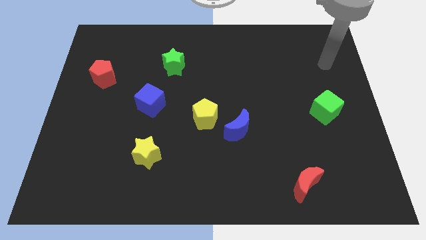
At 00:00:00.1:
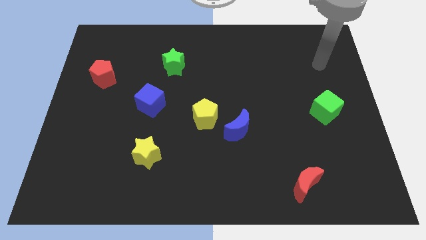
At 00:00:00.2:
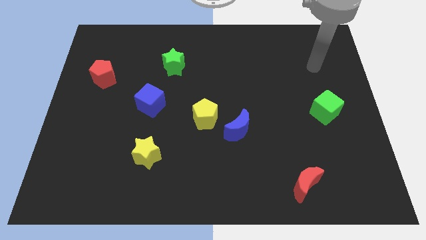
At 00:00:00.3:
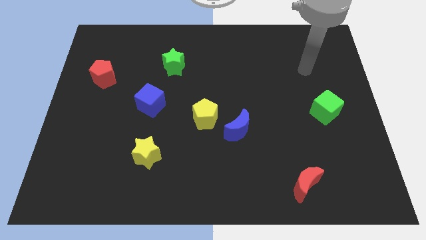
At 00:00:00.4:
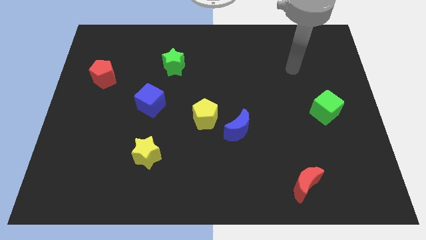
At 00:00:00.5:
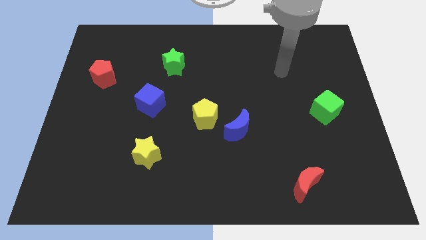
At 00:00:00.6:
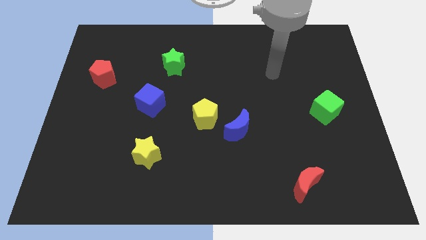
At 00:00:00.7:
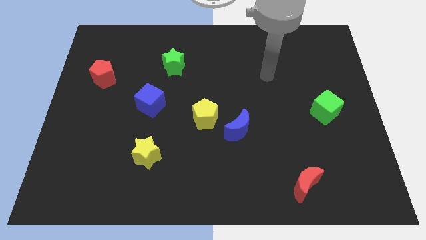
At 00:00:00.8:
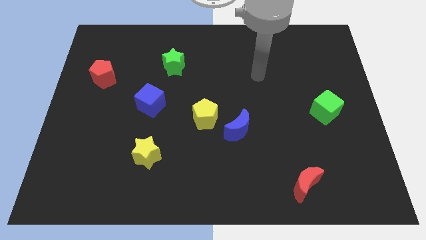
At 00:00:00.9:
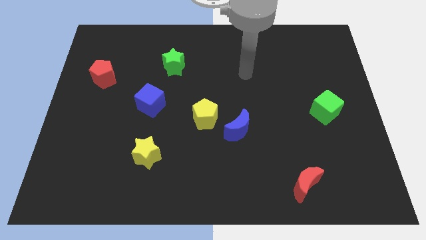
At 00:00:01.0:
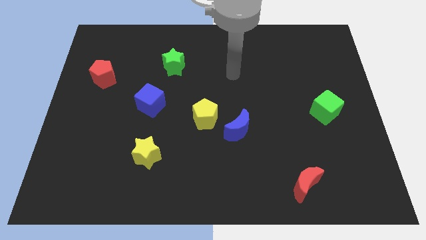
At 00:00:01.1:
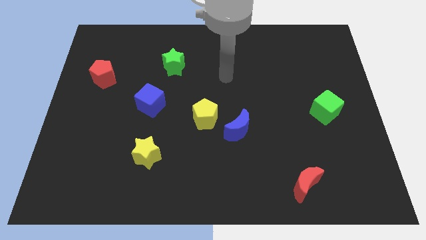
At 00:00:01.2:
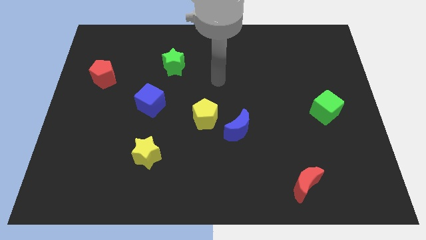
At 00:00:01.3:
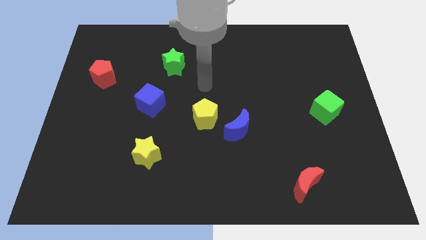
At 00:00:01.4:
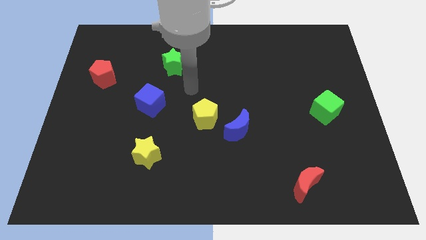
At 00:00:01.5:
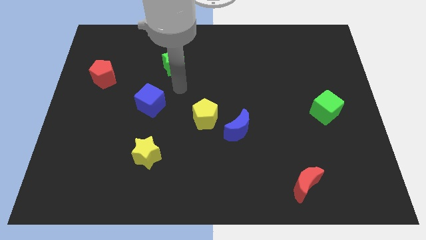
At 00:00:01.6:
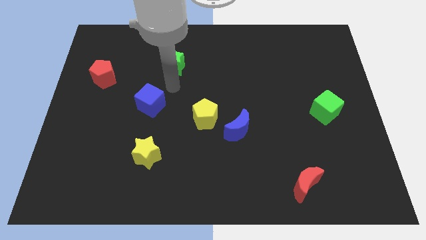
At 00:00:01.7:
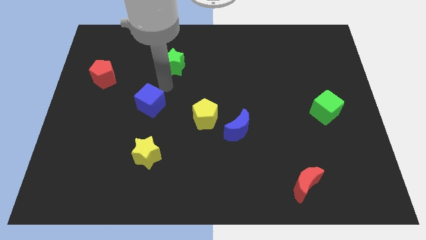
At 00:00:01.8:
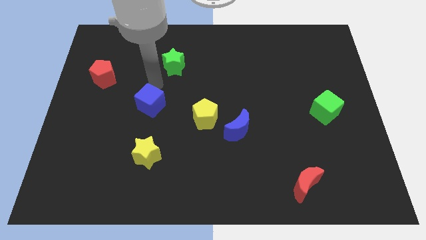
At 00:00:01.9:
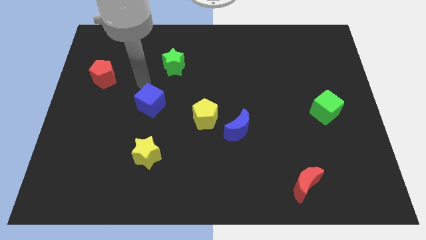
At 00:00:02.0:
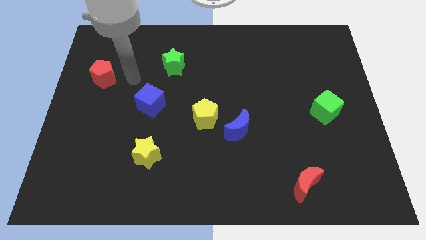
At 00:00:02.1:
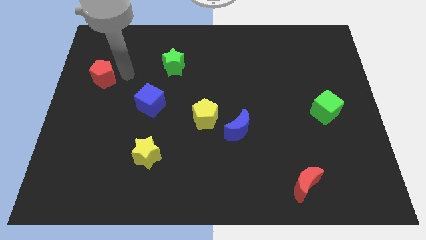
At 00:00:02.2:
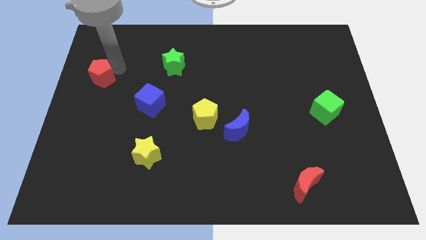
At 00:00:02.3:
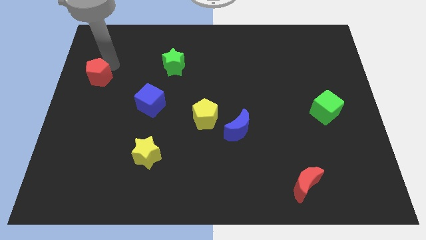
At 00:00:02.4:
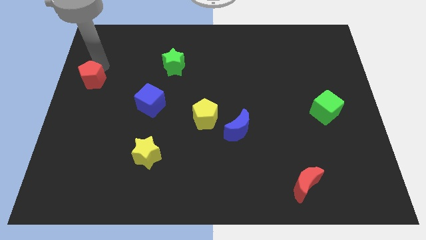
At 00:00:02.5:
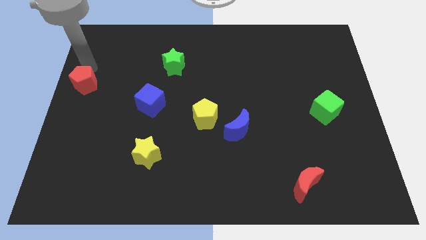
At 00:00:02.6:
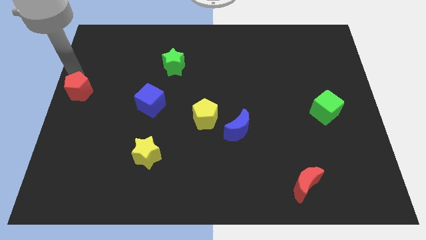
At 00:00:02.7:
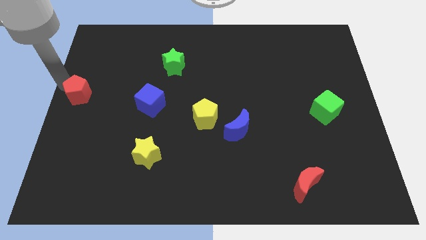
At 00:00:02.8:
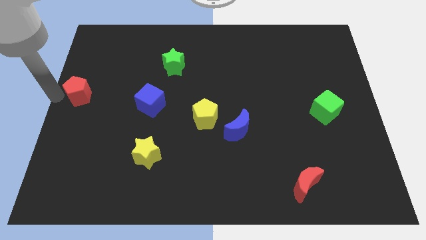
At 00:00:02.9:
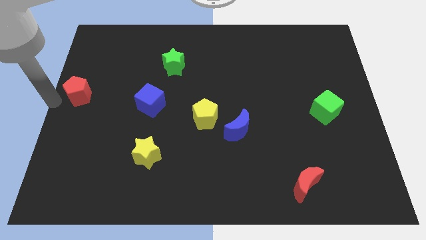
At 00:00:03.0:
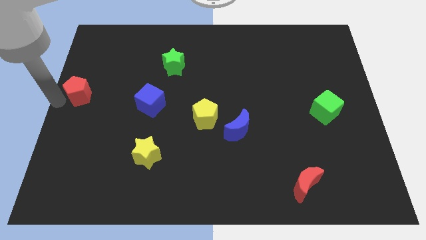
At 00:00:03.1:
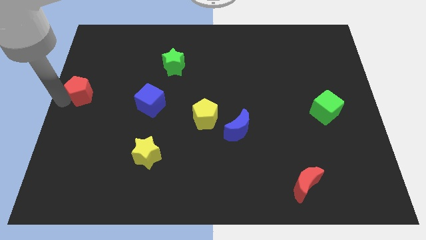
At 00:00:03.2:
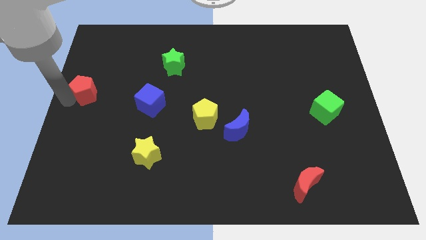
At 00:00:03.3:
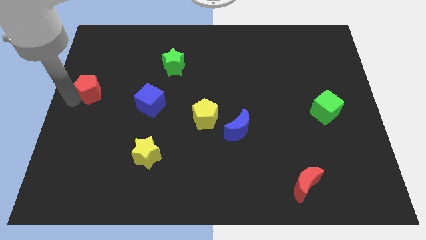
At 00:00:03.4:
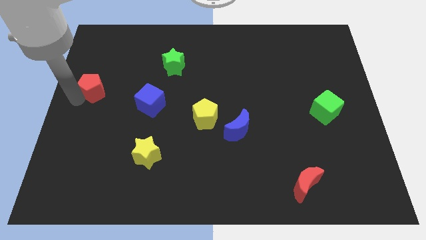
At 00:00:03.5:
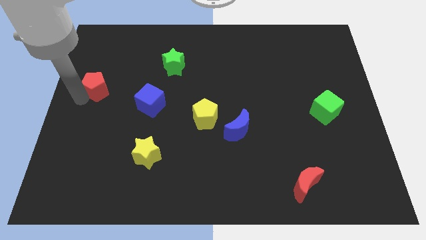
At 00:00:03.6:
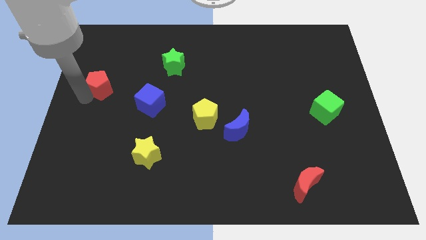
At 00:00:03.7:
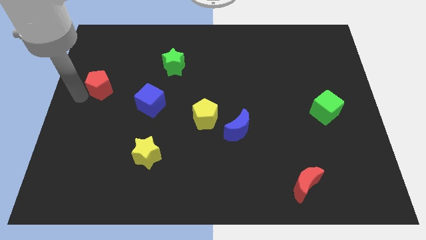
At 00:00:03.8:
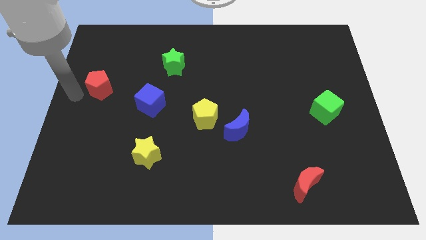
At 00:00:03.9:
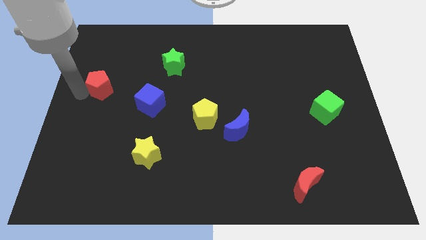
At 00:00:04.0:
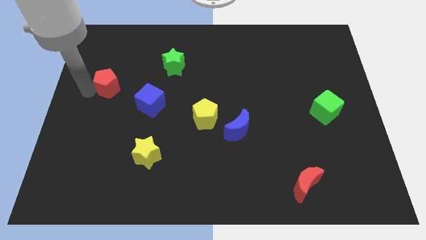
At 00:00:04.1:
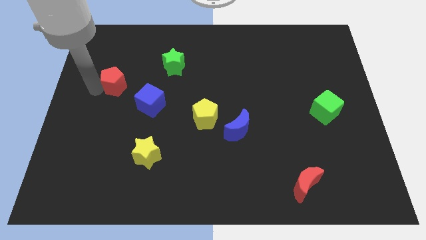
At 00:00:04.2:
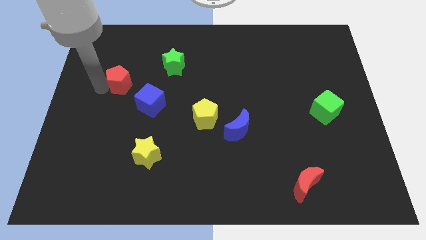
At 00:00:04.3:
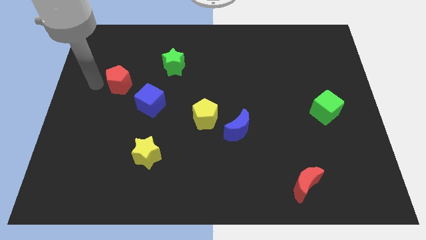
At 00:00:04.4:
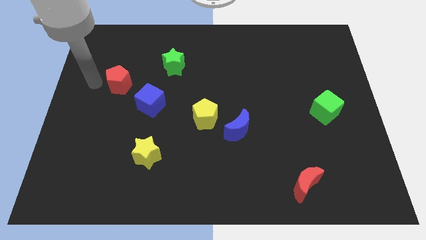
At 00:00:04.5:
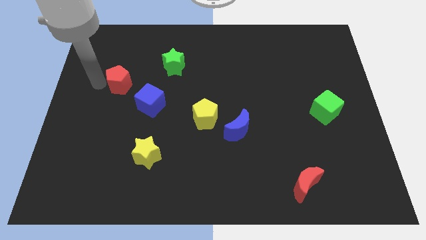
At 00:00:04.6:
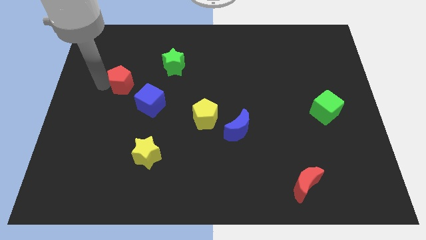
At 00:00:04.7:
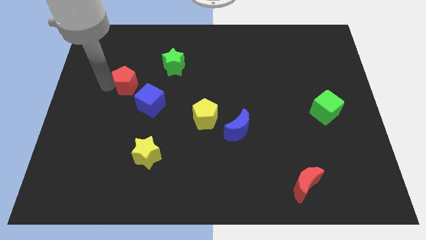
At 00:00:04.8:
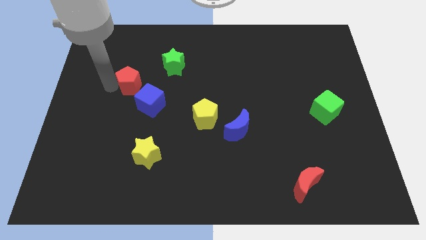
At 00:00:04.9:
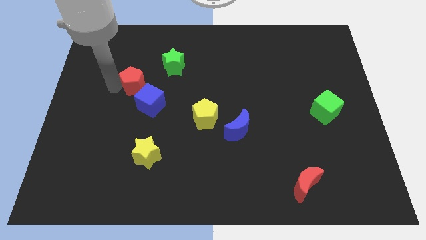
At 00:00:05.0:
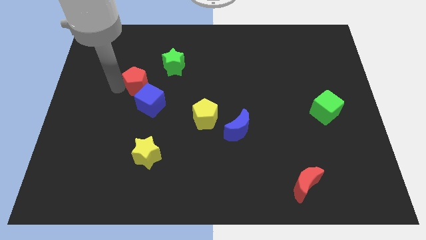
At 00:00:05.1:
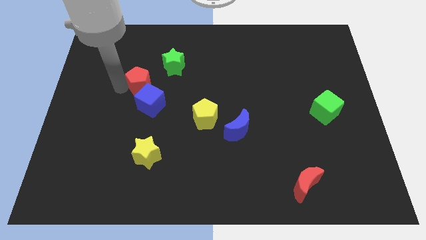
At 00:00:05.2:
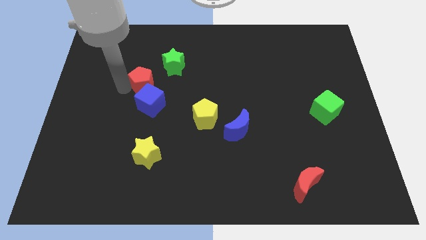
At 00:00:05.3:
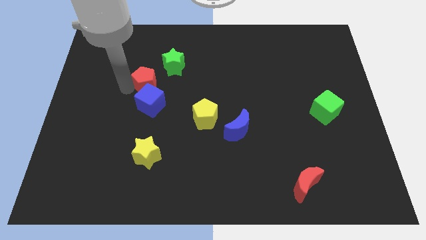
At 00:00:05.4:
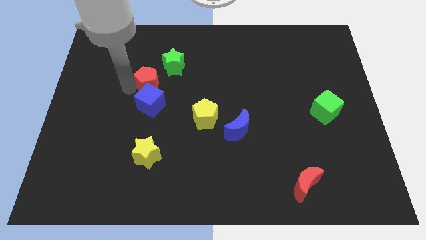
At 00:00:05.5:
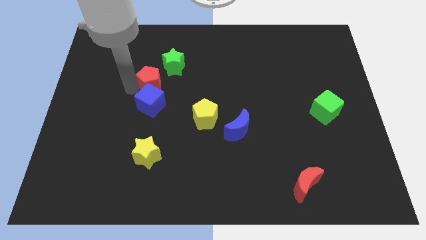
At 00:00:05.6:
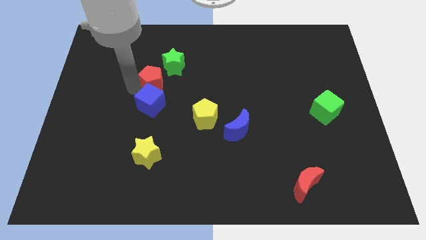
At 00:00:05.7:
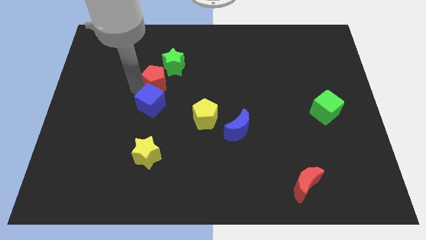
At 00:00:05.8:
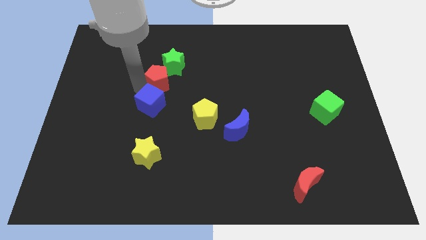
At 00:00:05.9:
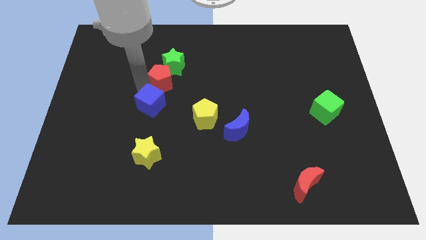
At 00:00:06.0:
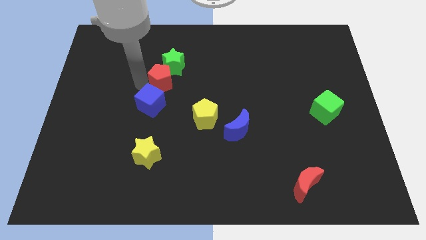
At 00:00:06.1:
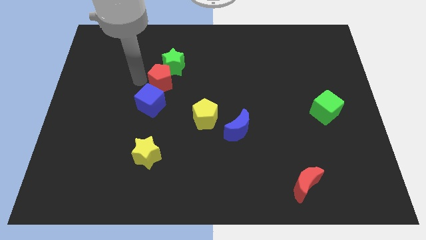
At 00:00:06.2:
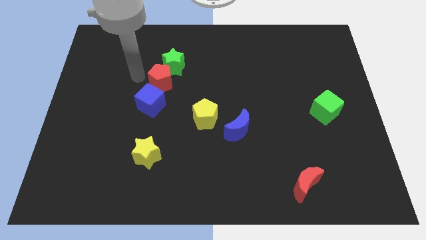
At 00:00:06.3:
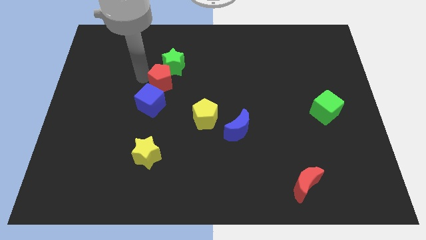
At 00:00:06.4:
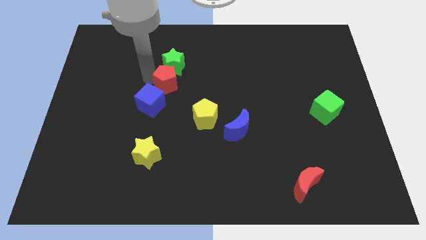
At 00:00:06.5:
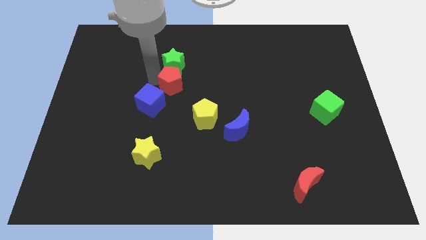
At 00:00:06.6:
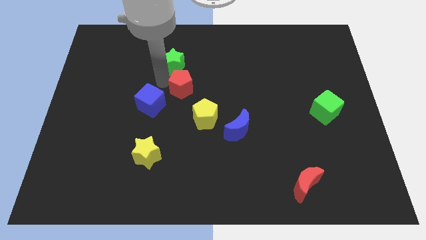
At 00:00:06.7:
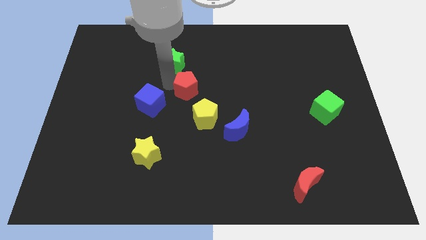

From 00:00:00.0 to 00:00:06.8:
push the red pentagon to the top side of the yellow pentagon

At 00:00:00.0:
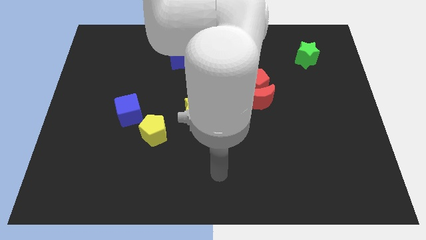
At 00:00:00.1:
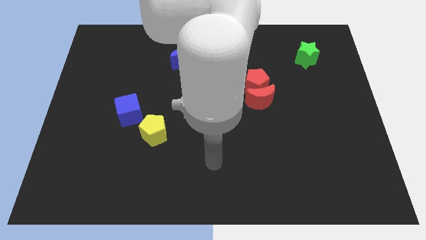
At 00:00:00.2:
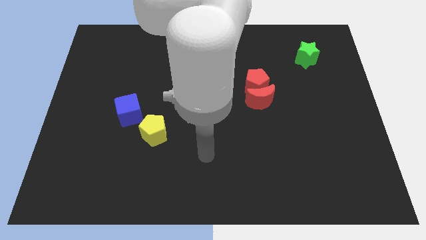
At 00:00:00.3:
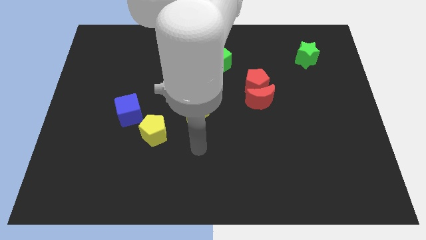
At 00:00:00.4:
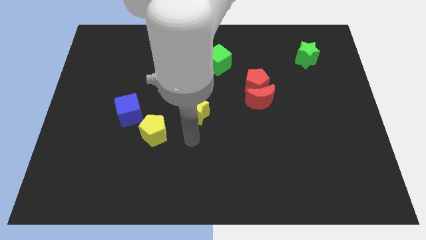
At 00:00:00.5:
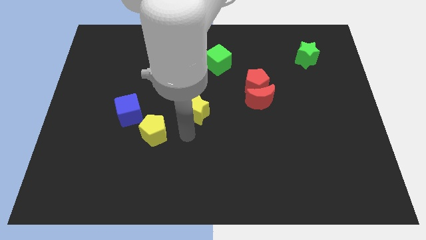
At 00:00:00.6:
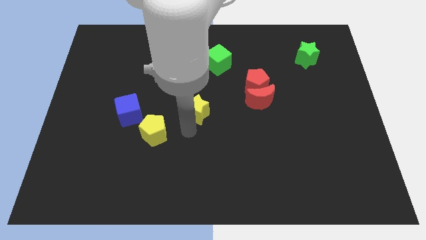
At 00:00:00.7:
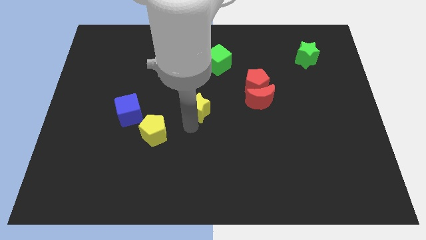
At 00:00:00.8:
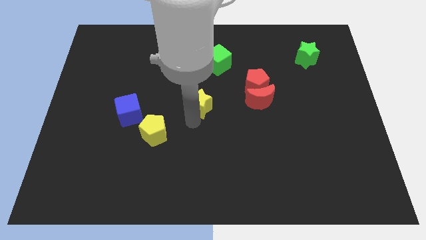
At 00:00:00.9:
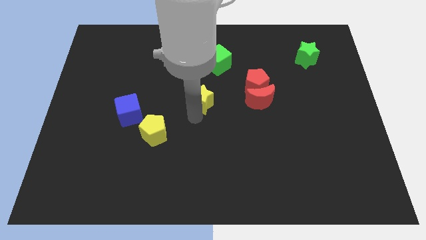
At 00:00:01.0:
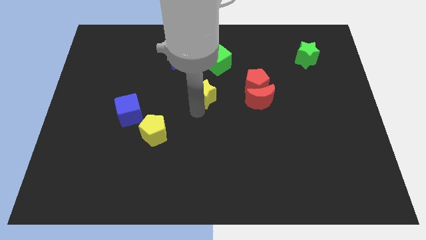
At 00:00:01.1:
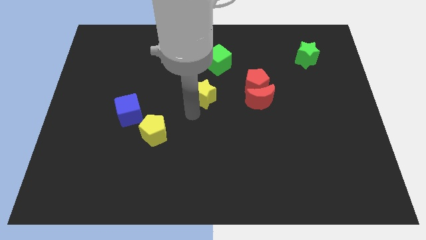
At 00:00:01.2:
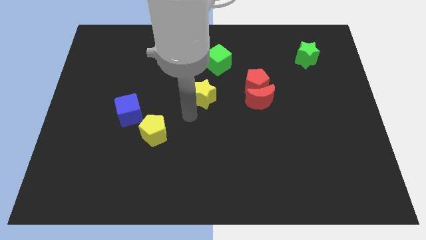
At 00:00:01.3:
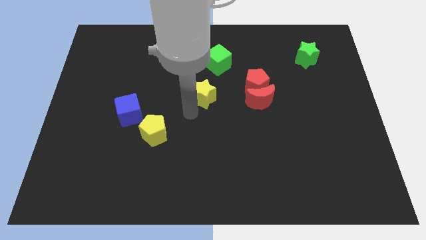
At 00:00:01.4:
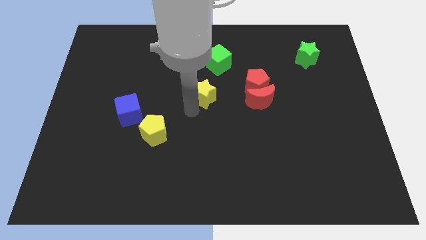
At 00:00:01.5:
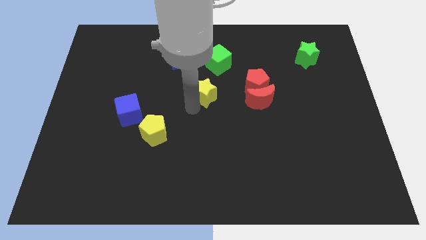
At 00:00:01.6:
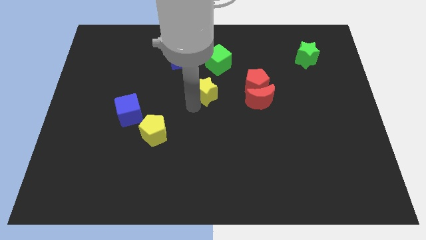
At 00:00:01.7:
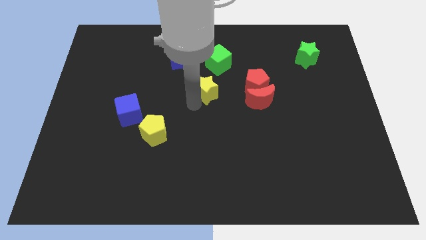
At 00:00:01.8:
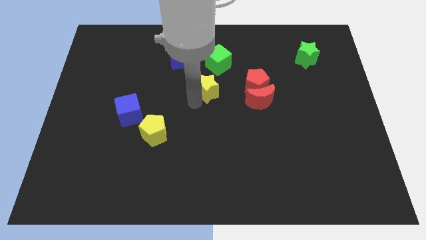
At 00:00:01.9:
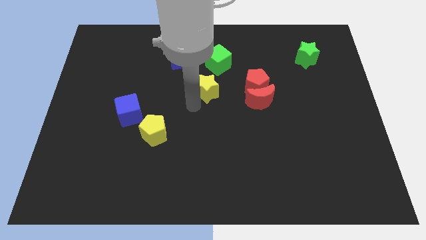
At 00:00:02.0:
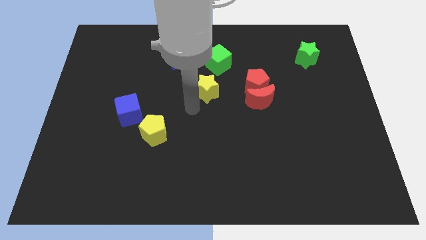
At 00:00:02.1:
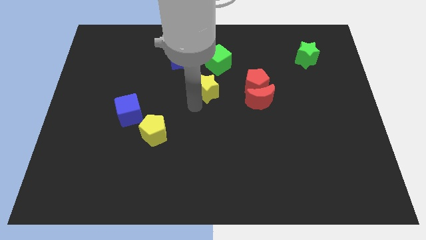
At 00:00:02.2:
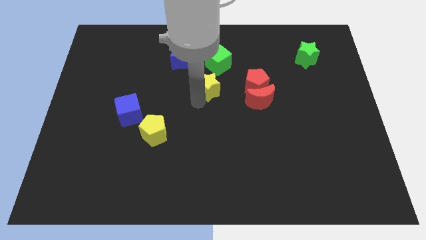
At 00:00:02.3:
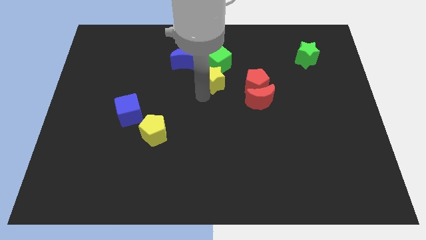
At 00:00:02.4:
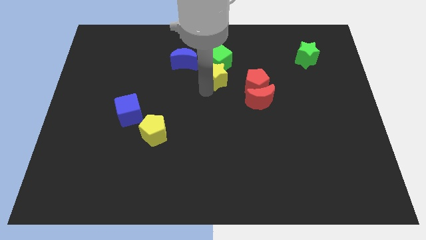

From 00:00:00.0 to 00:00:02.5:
push the yellow star to the top left side of the red pentagon
